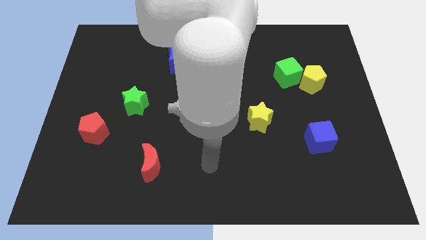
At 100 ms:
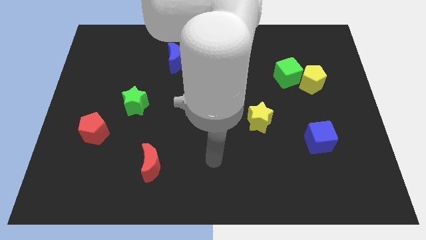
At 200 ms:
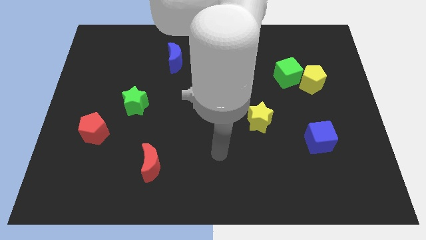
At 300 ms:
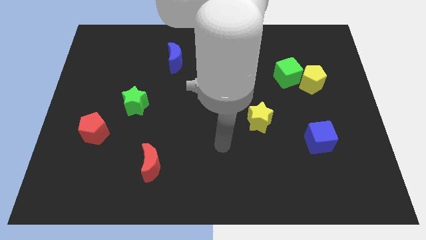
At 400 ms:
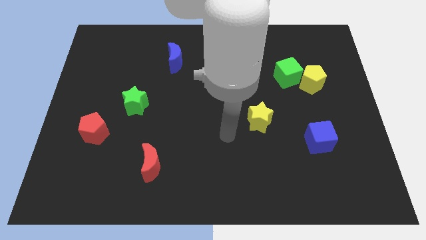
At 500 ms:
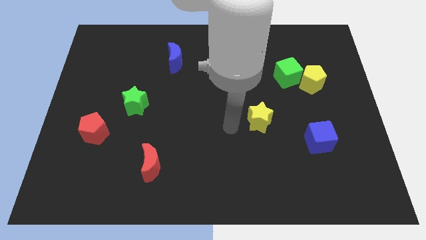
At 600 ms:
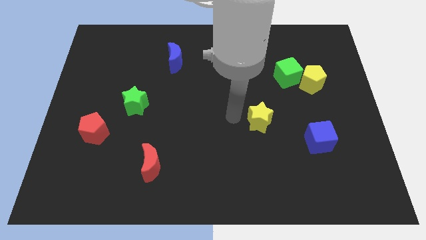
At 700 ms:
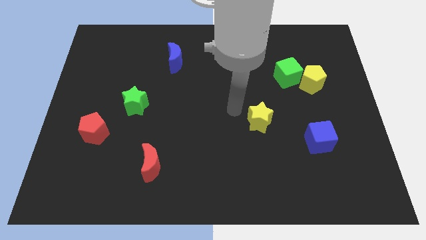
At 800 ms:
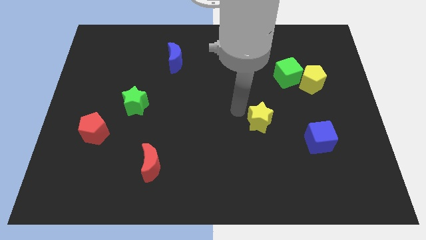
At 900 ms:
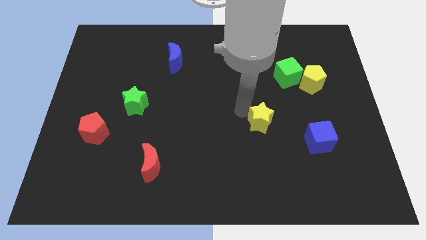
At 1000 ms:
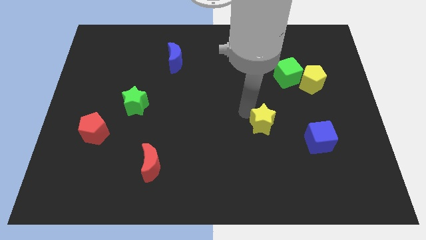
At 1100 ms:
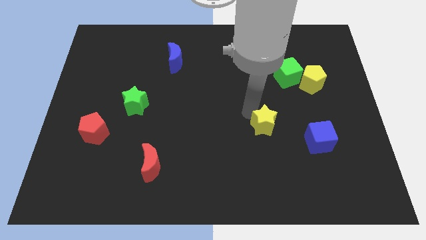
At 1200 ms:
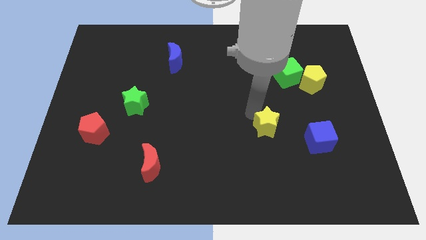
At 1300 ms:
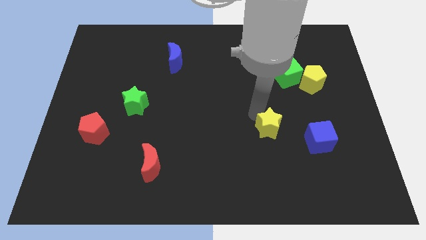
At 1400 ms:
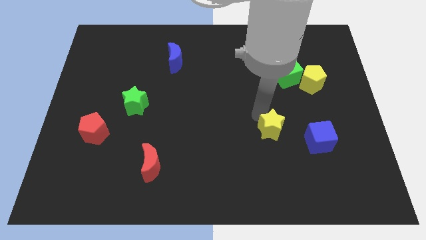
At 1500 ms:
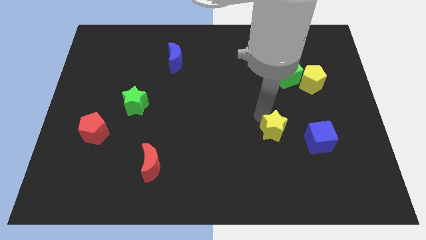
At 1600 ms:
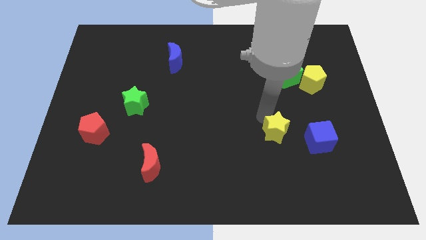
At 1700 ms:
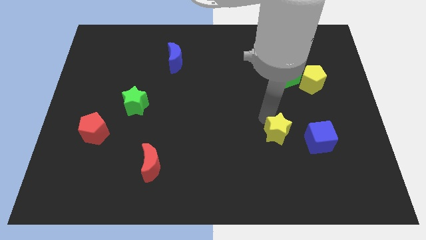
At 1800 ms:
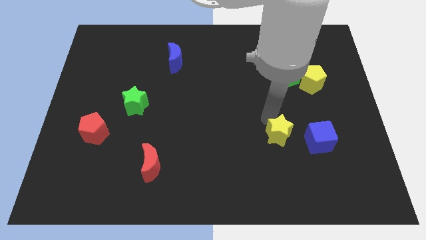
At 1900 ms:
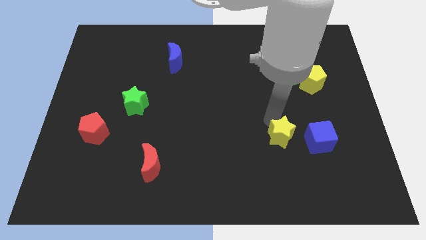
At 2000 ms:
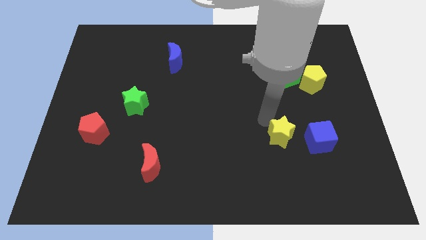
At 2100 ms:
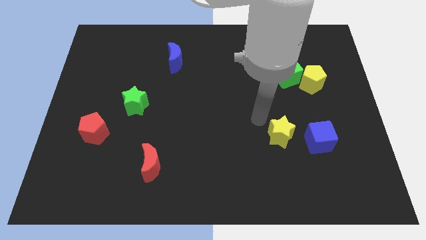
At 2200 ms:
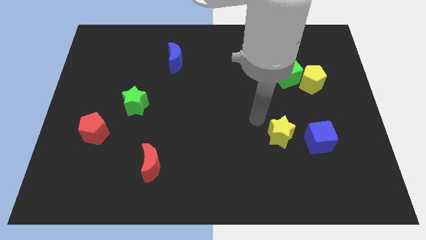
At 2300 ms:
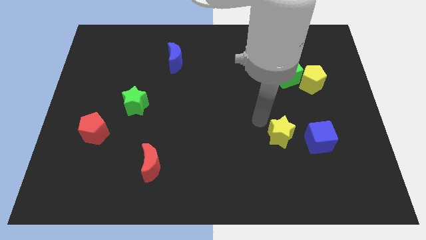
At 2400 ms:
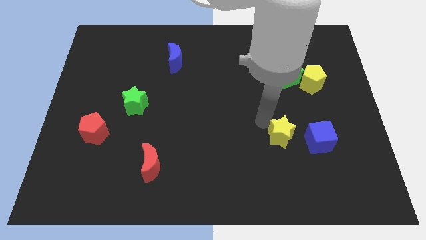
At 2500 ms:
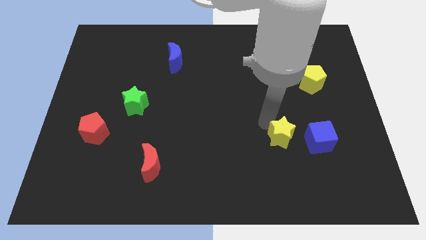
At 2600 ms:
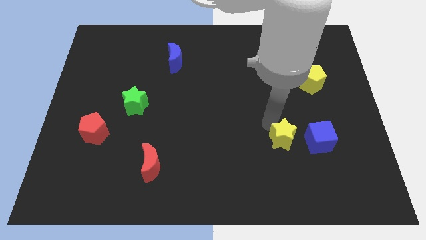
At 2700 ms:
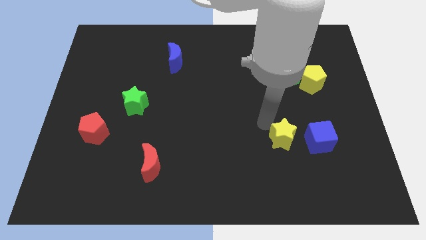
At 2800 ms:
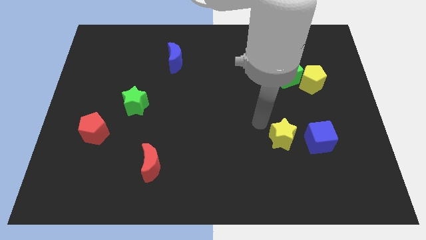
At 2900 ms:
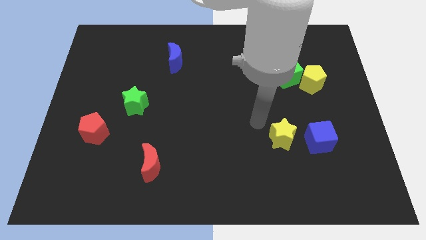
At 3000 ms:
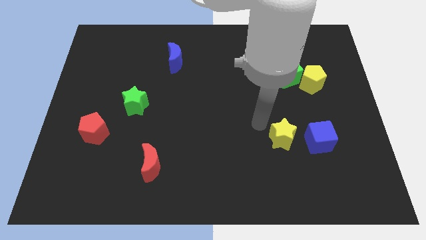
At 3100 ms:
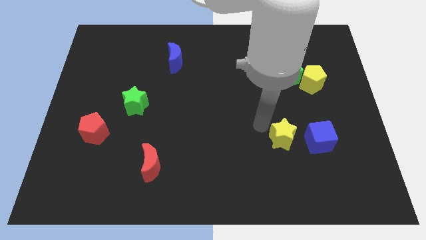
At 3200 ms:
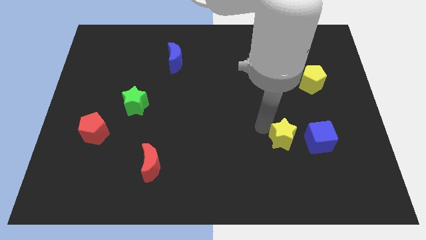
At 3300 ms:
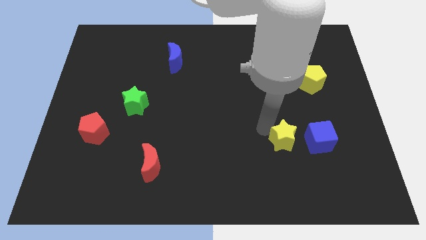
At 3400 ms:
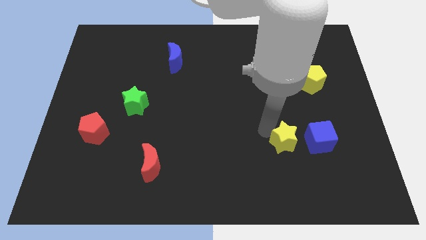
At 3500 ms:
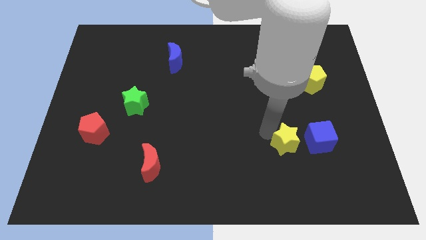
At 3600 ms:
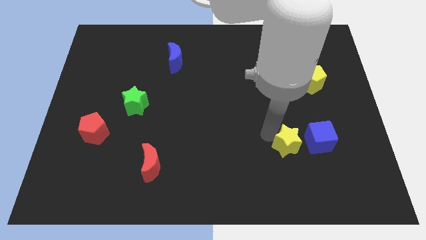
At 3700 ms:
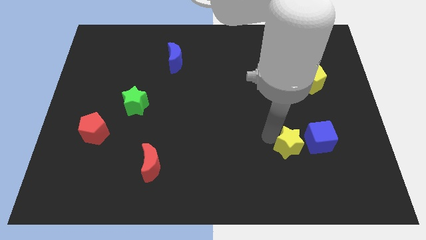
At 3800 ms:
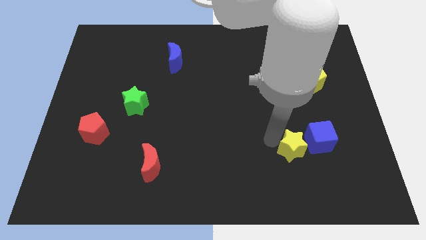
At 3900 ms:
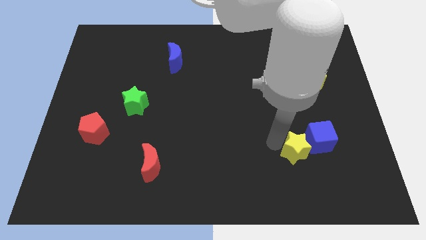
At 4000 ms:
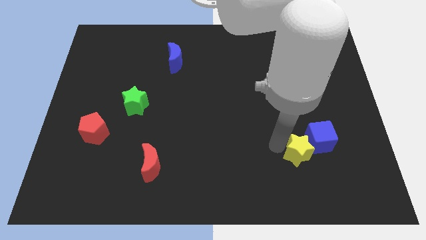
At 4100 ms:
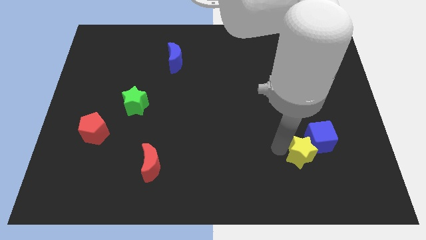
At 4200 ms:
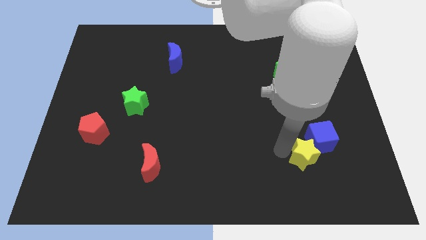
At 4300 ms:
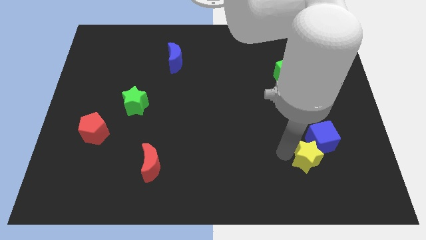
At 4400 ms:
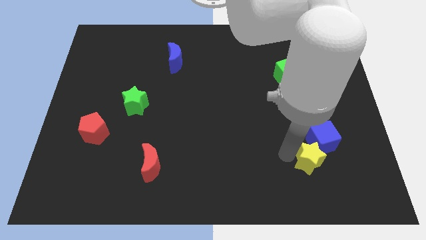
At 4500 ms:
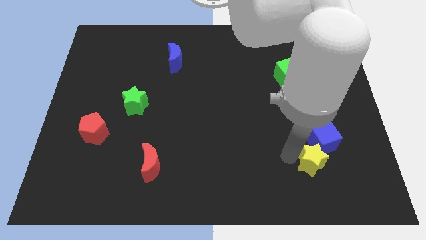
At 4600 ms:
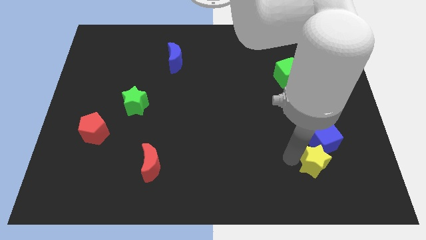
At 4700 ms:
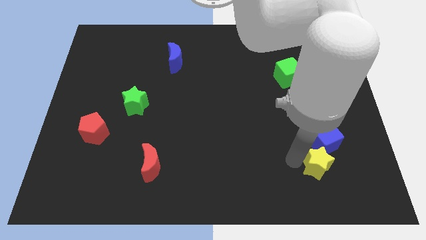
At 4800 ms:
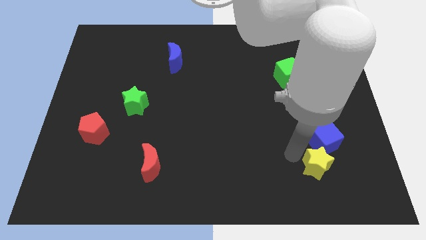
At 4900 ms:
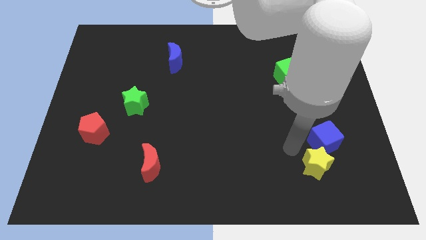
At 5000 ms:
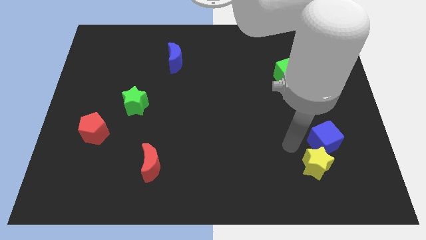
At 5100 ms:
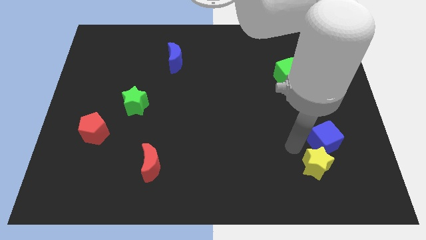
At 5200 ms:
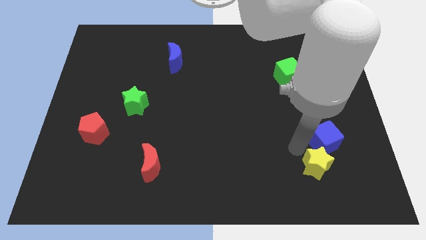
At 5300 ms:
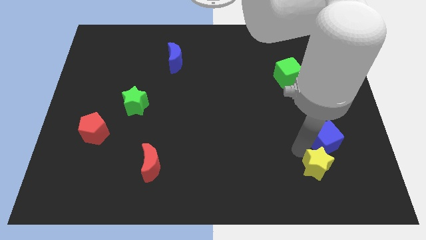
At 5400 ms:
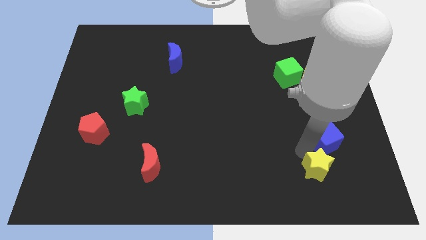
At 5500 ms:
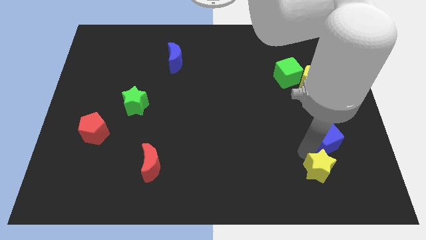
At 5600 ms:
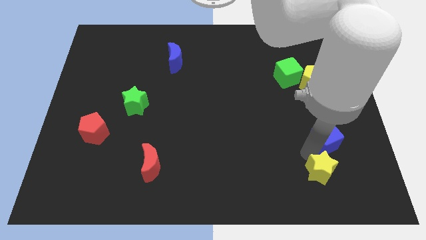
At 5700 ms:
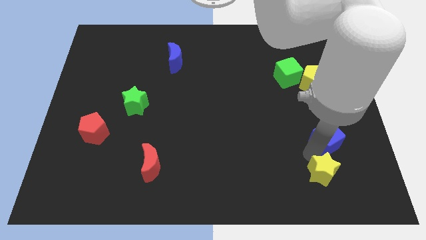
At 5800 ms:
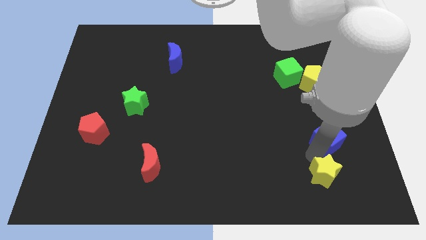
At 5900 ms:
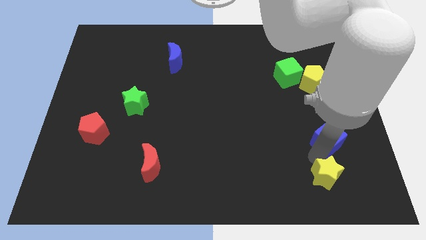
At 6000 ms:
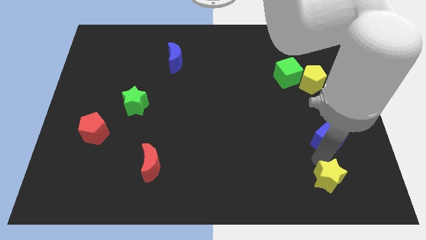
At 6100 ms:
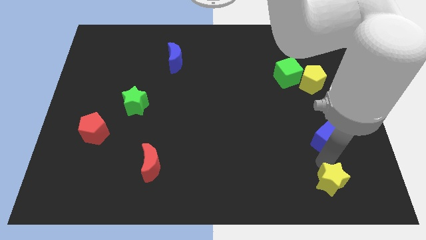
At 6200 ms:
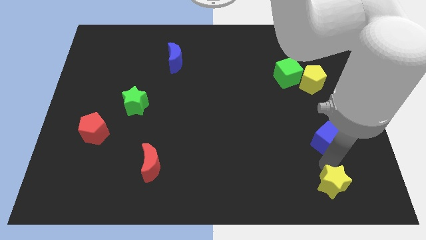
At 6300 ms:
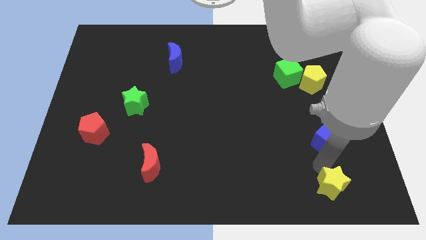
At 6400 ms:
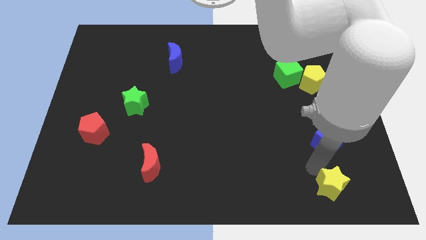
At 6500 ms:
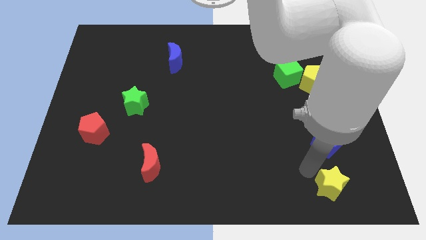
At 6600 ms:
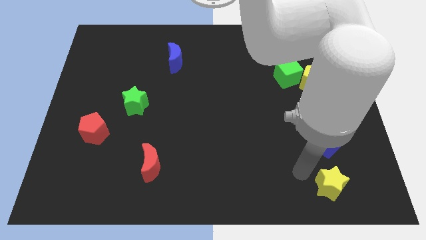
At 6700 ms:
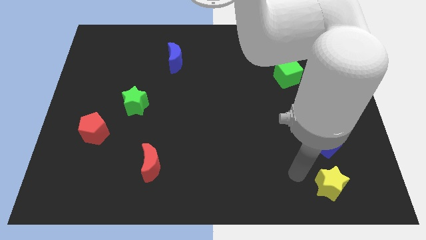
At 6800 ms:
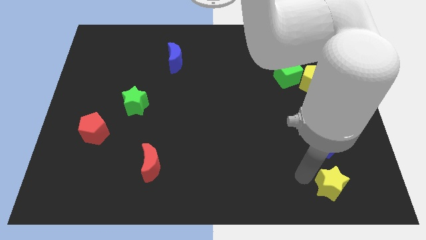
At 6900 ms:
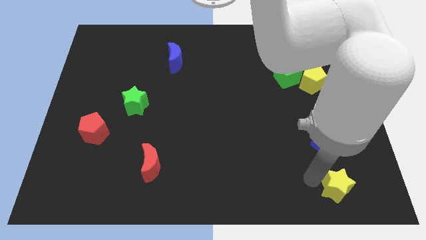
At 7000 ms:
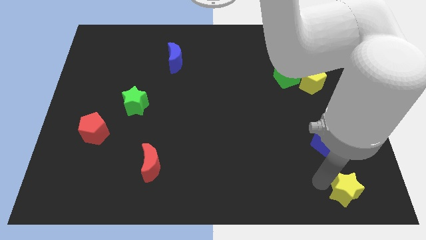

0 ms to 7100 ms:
push the yellow star to the bottom right
